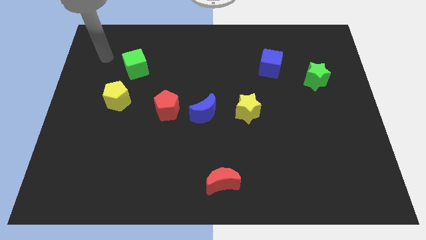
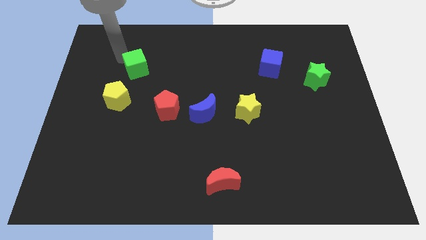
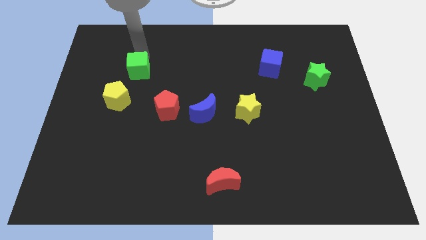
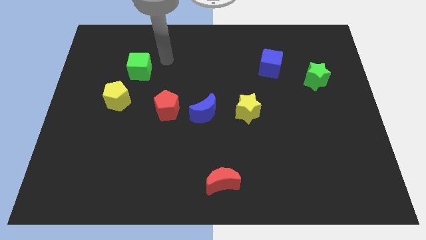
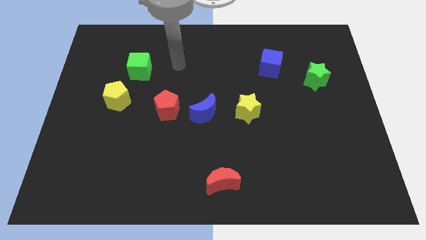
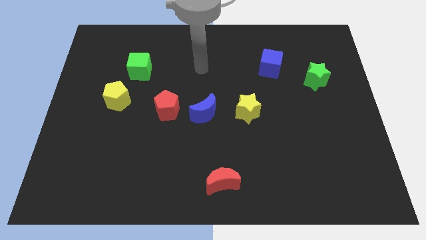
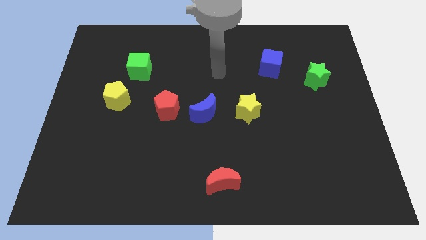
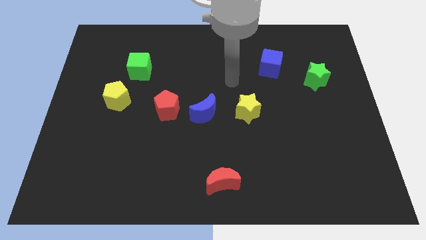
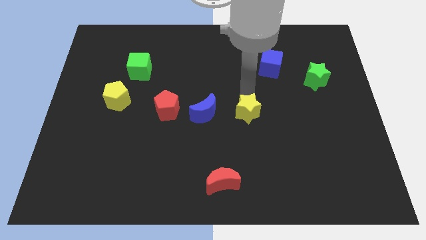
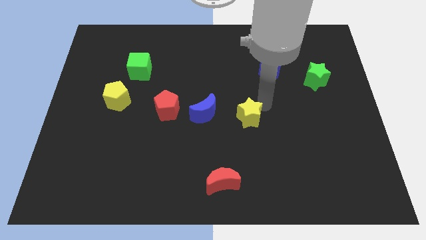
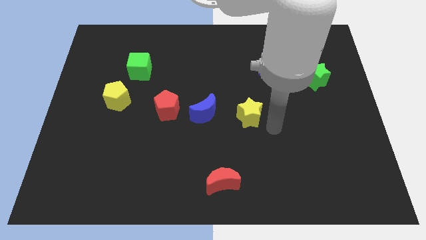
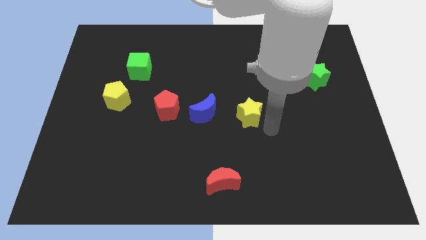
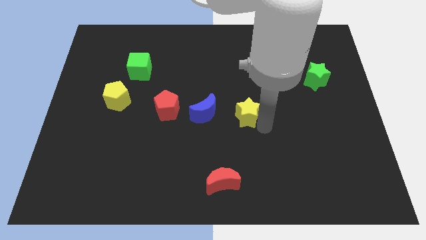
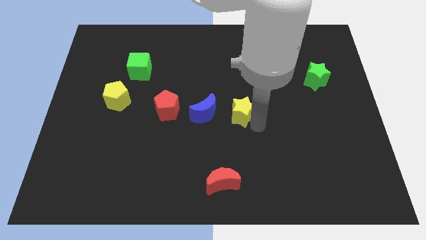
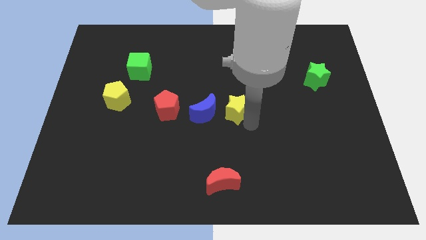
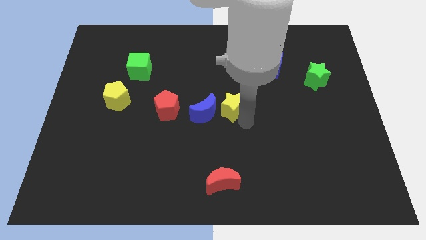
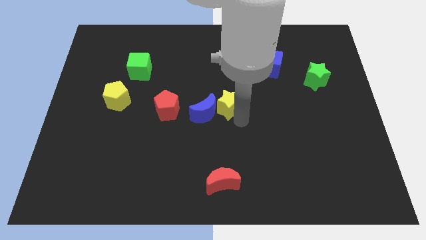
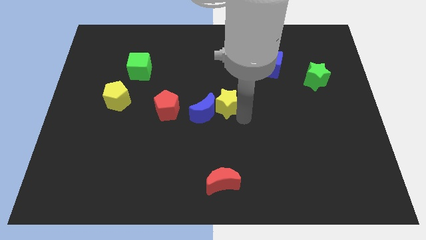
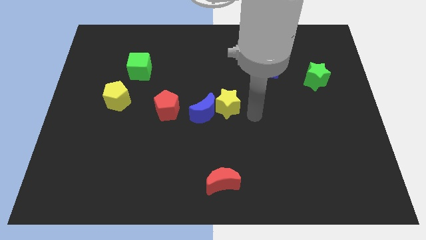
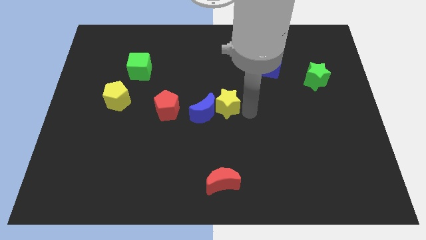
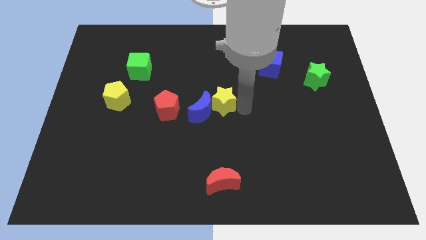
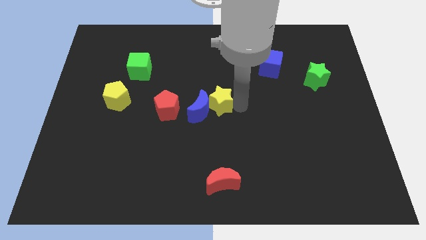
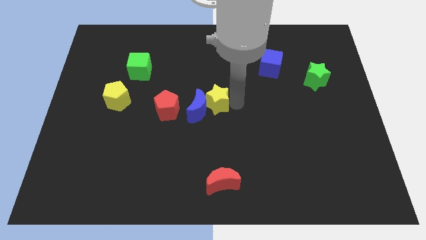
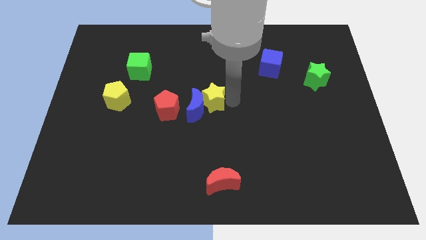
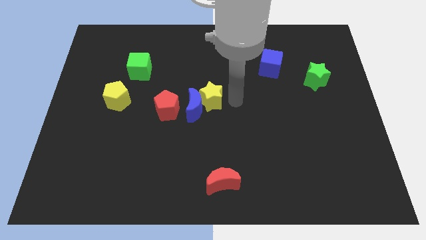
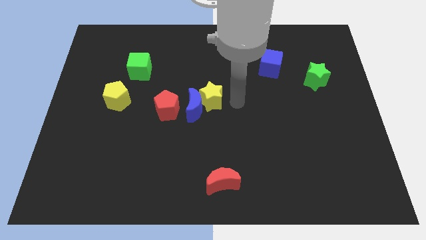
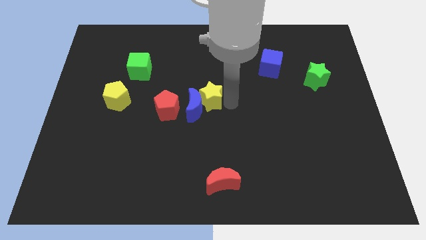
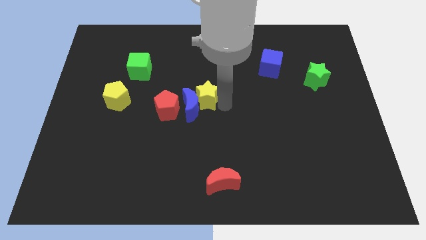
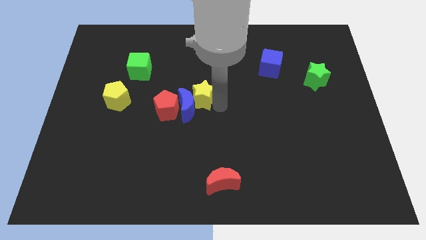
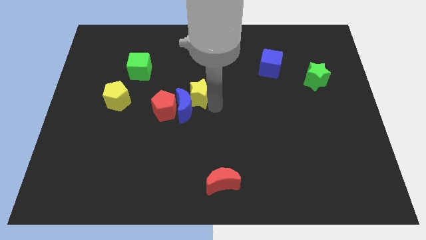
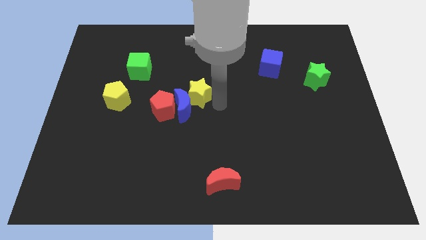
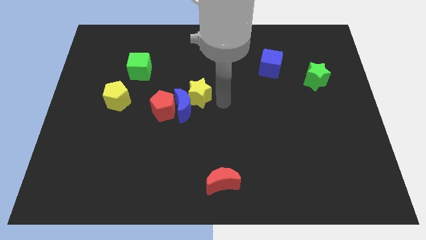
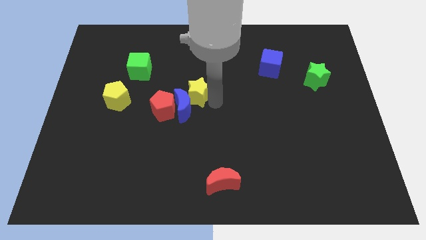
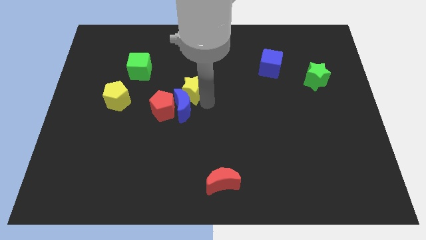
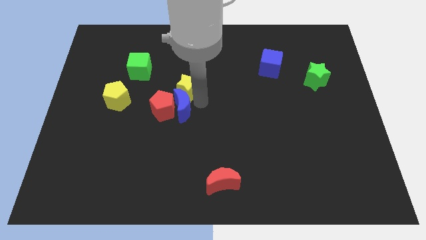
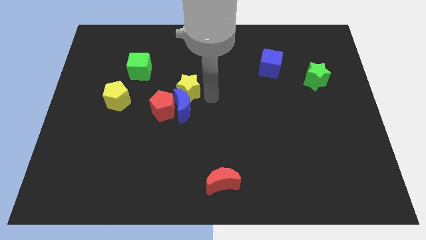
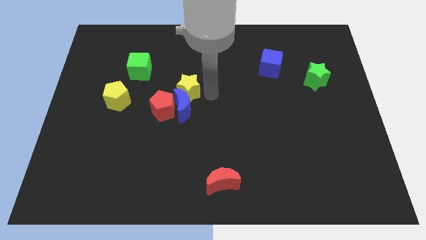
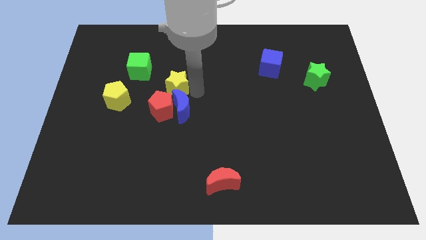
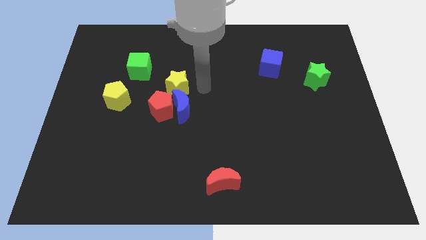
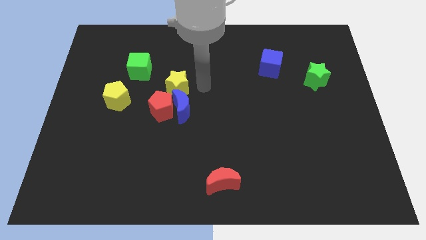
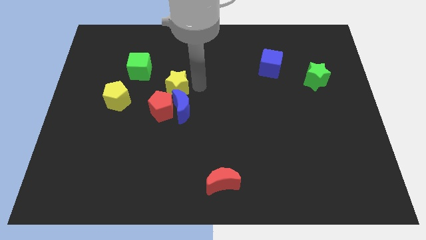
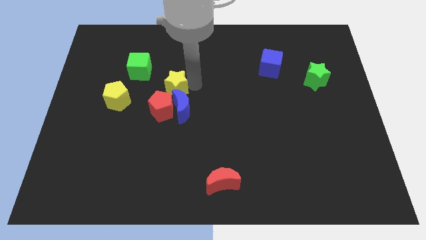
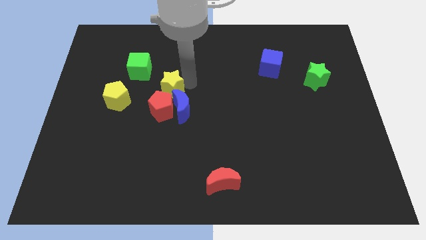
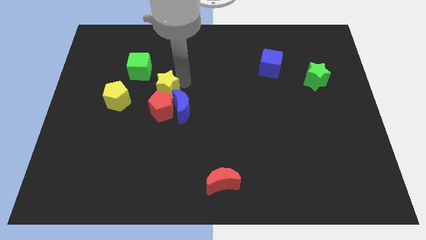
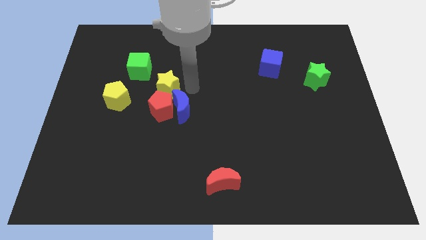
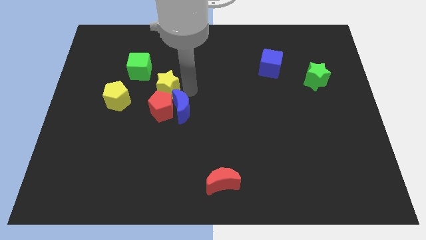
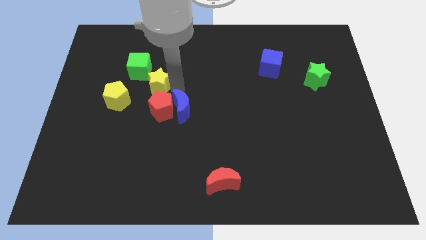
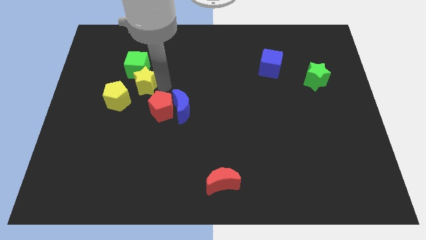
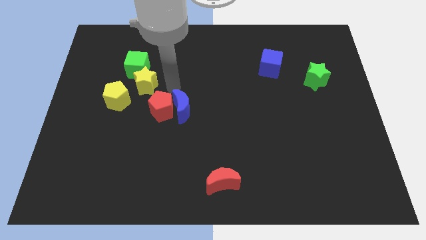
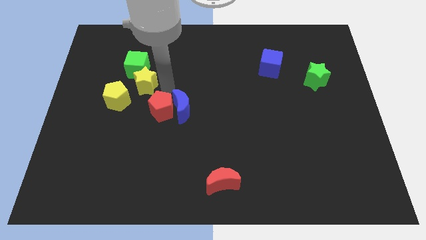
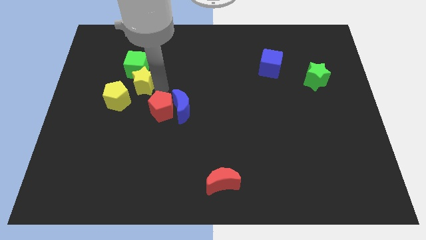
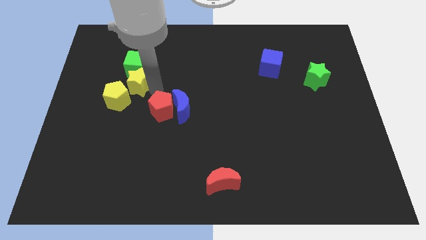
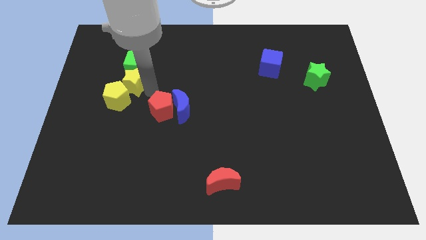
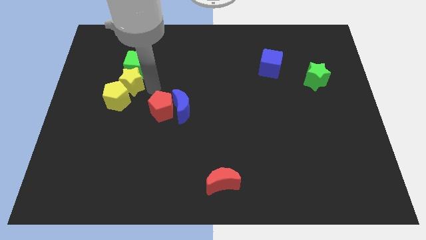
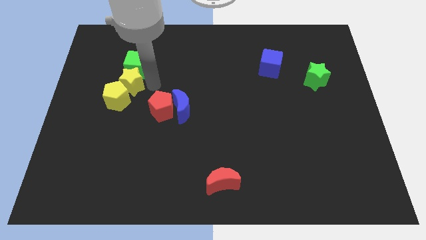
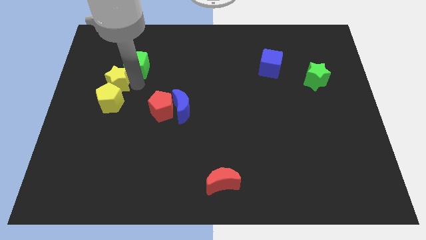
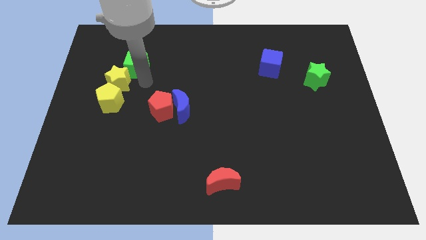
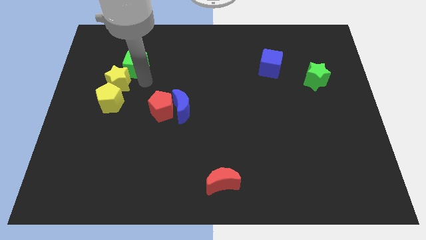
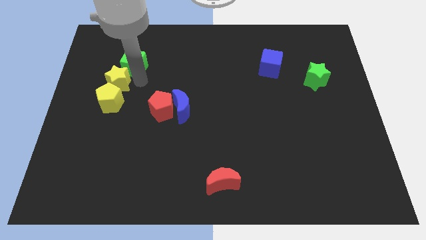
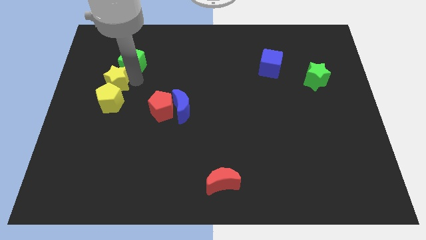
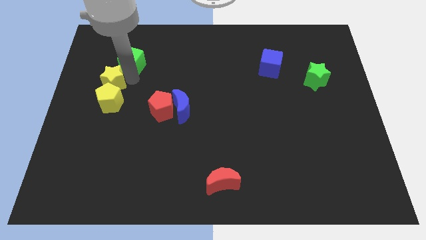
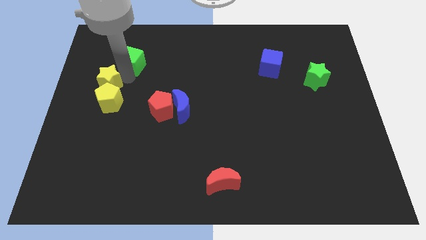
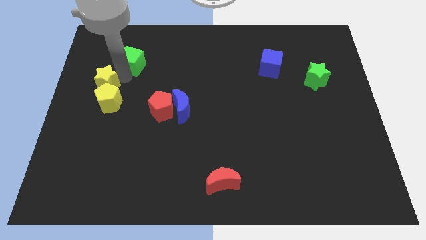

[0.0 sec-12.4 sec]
slide the yellow star to the left side of the board
